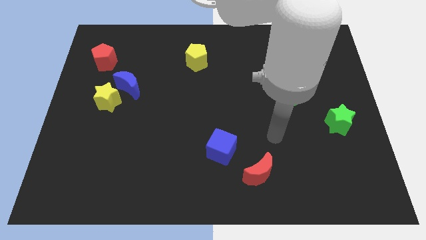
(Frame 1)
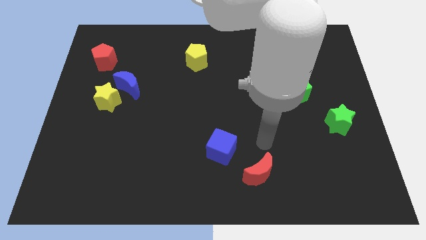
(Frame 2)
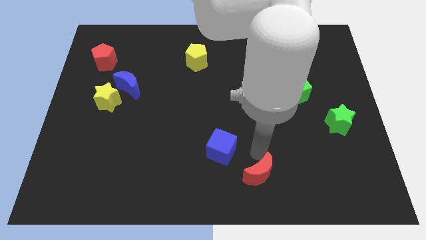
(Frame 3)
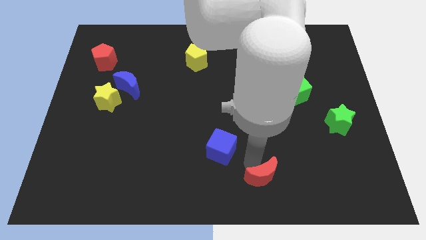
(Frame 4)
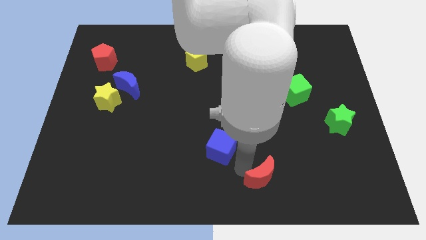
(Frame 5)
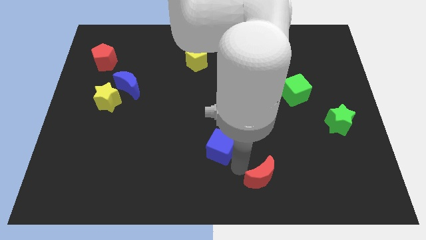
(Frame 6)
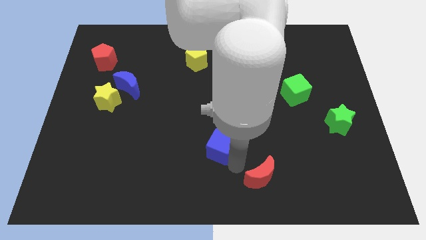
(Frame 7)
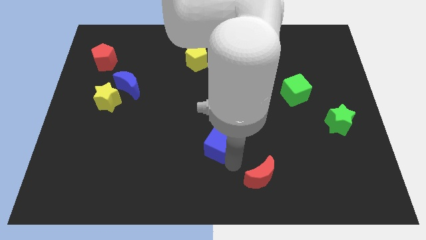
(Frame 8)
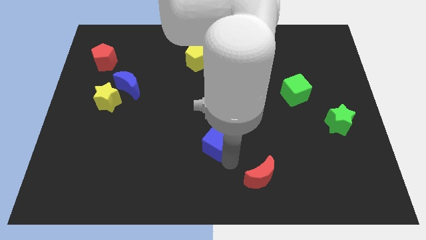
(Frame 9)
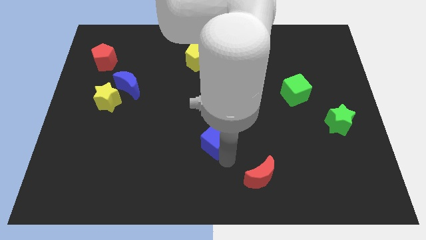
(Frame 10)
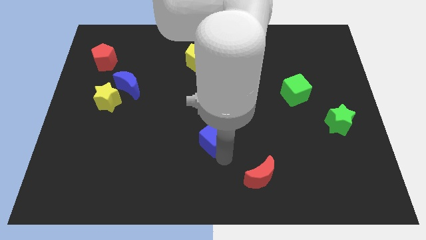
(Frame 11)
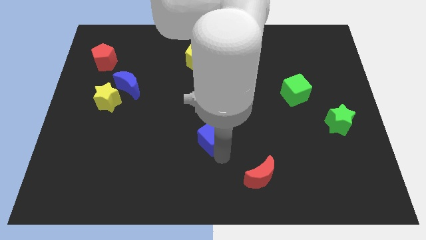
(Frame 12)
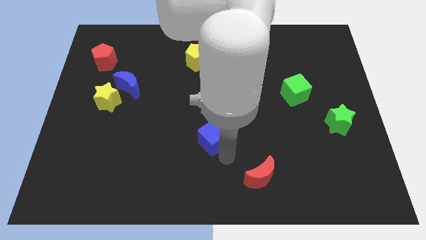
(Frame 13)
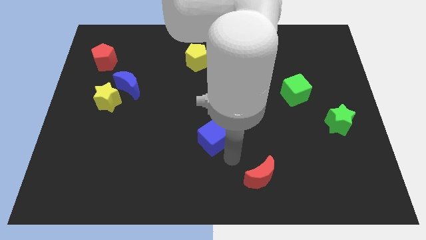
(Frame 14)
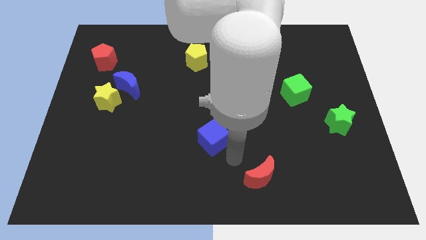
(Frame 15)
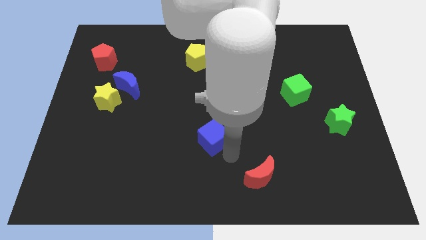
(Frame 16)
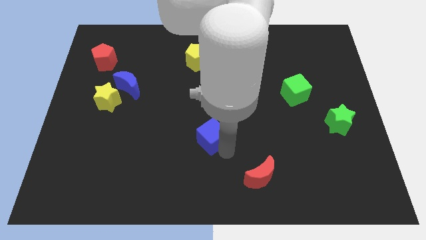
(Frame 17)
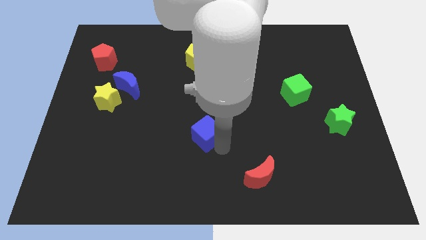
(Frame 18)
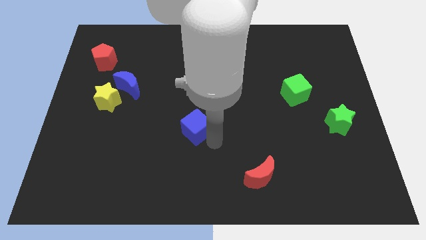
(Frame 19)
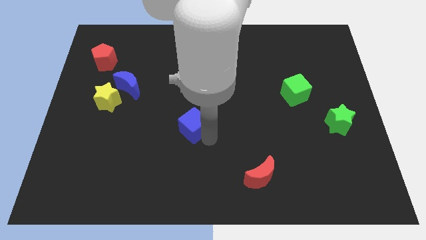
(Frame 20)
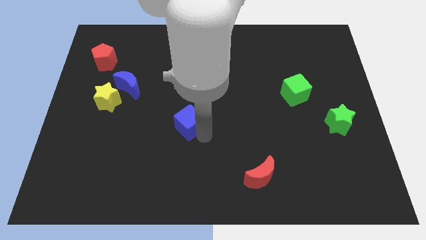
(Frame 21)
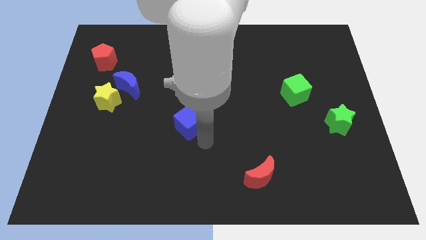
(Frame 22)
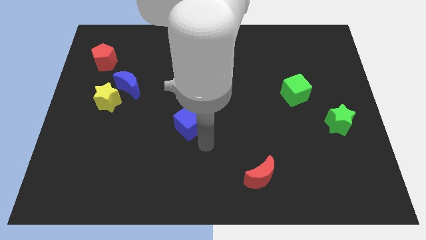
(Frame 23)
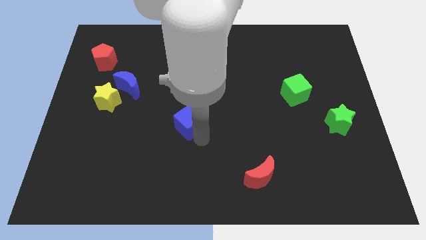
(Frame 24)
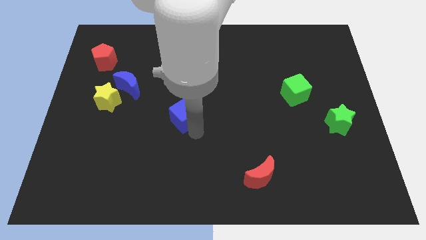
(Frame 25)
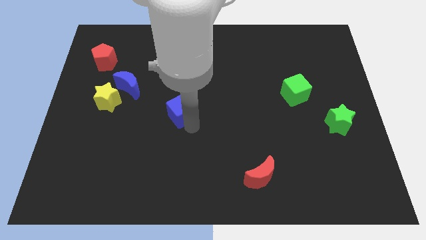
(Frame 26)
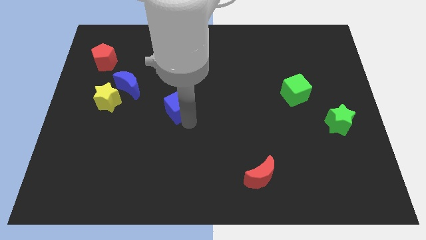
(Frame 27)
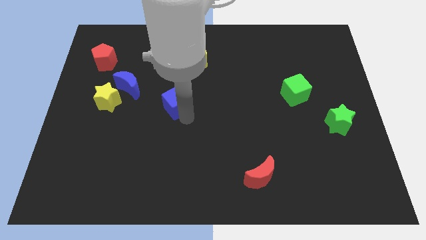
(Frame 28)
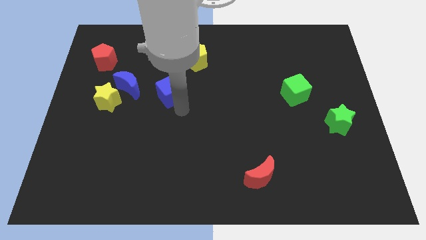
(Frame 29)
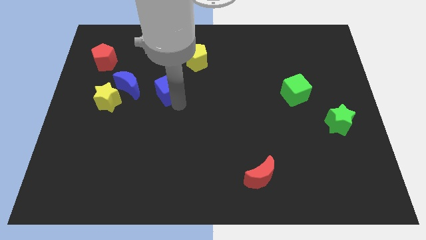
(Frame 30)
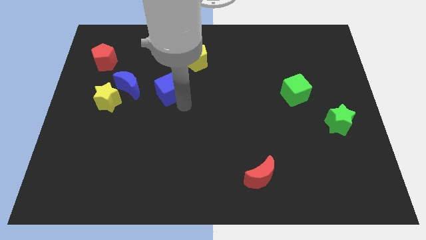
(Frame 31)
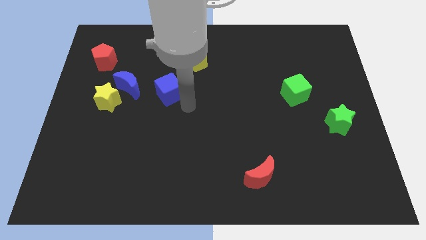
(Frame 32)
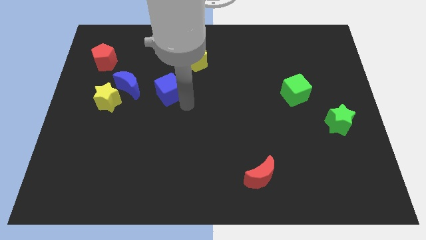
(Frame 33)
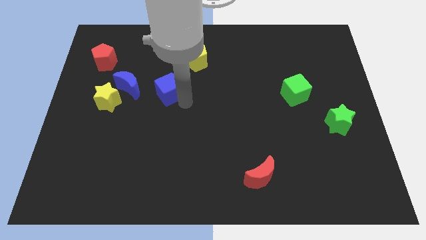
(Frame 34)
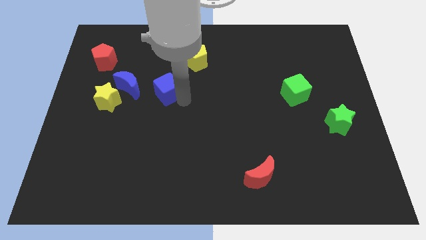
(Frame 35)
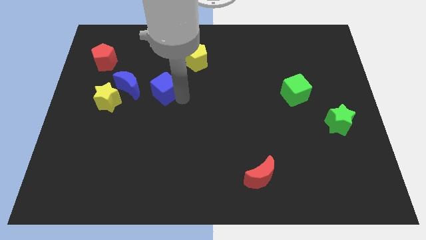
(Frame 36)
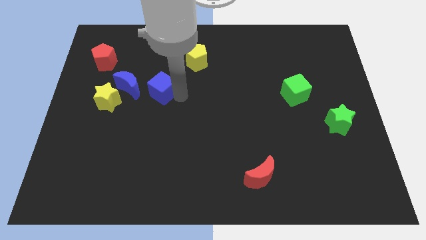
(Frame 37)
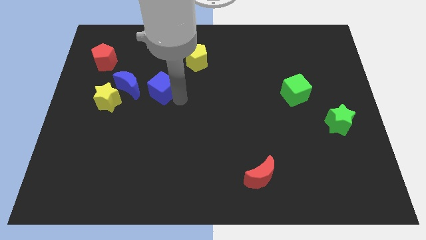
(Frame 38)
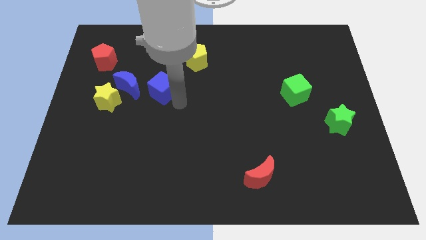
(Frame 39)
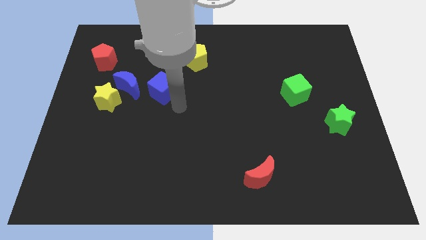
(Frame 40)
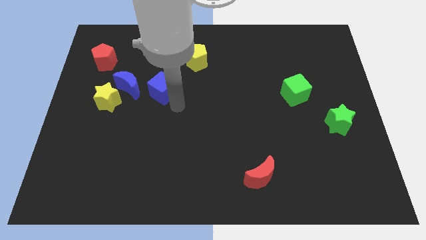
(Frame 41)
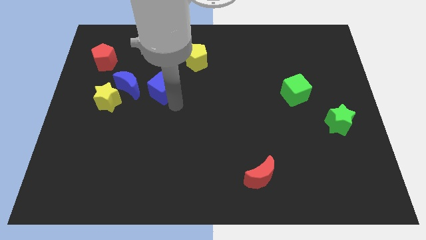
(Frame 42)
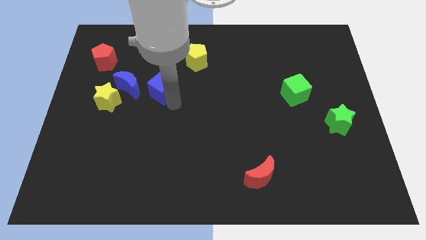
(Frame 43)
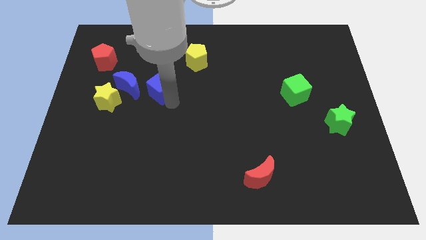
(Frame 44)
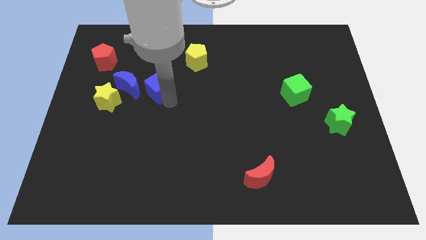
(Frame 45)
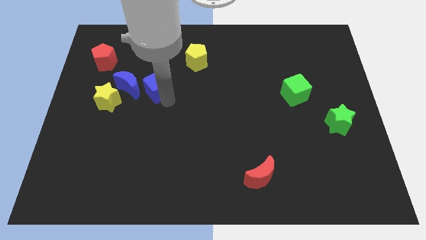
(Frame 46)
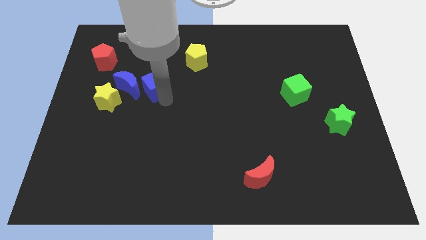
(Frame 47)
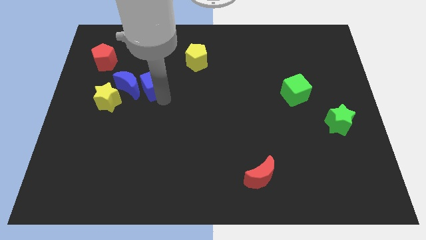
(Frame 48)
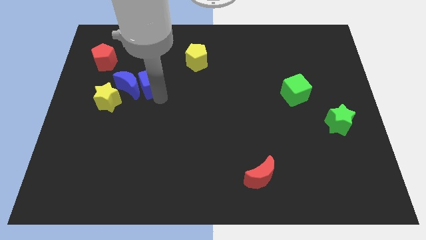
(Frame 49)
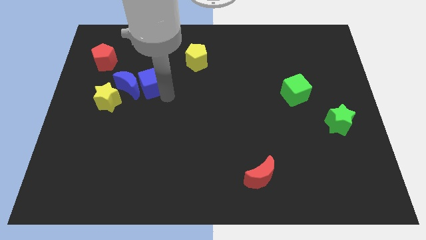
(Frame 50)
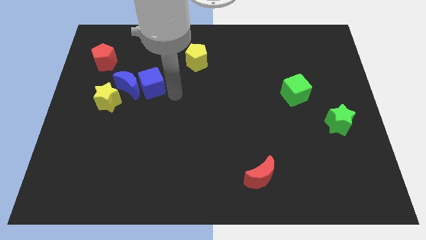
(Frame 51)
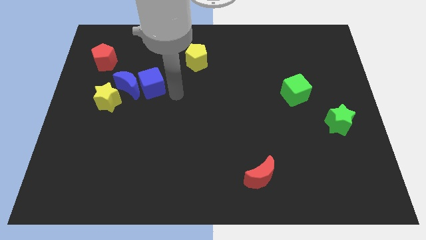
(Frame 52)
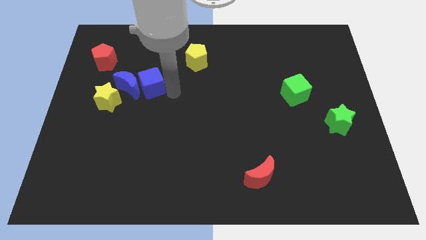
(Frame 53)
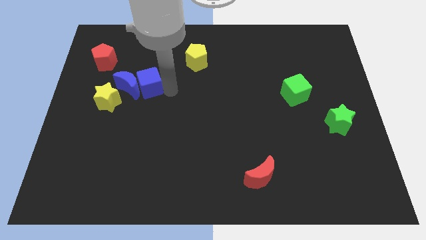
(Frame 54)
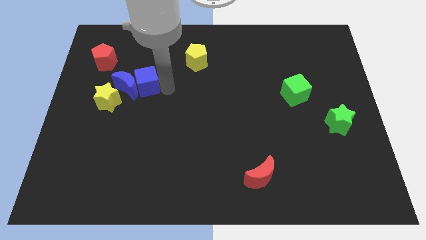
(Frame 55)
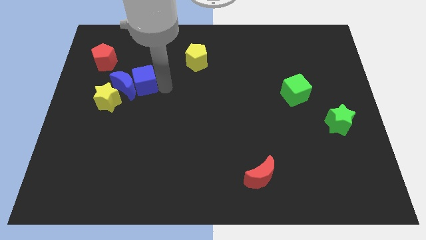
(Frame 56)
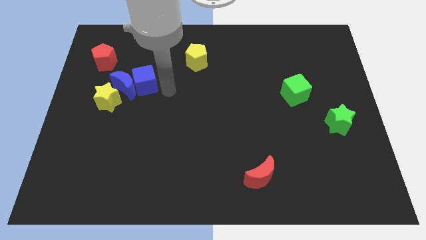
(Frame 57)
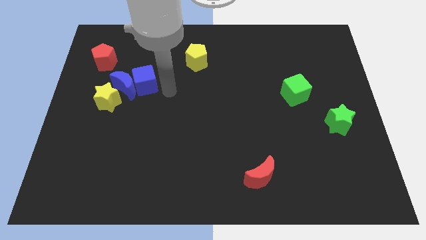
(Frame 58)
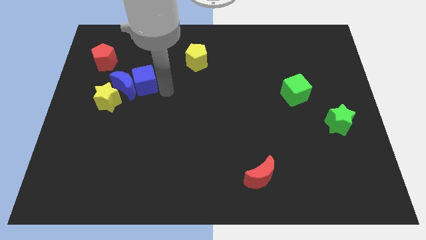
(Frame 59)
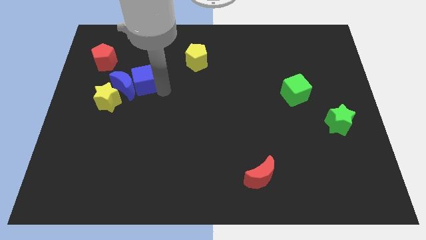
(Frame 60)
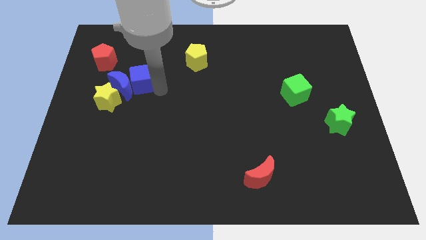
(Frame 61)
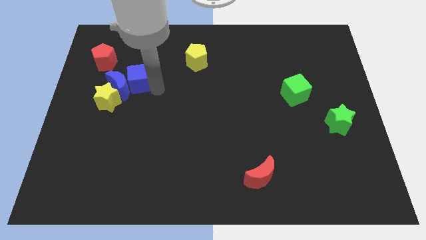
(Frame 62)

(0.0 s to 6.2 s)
push the blue cube diagonally down and to the right of the red pentagon
